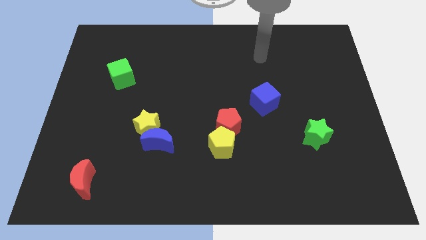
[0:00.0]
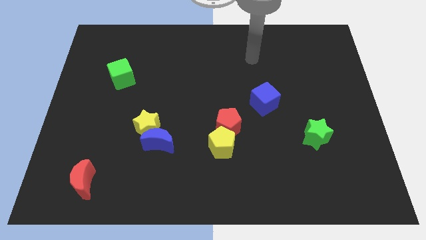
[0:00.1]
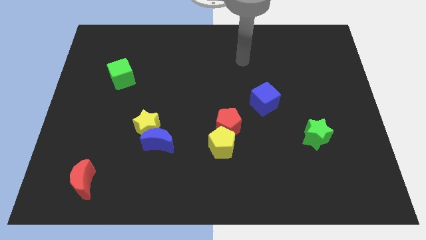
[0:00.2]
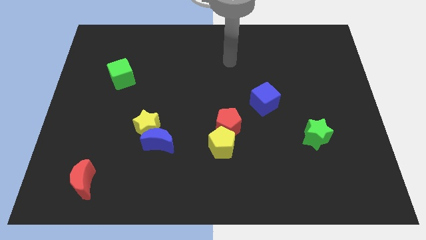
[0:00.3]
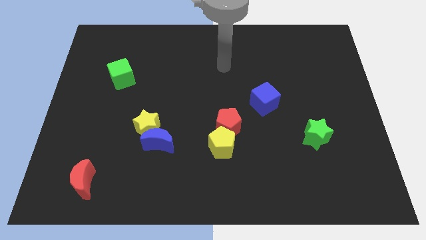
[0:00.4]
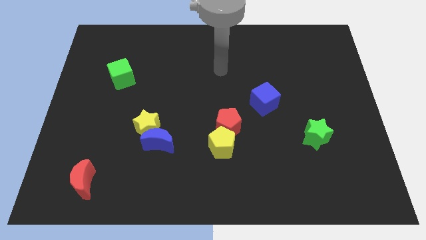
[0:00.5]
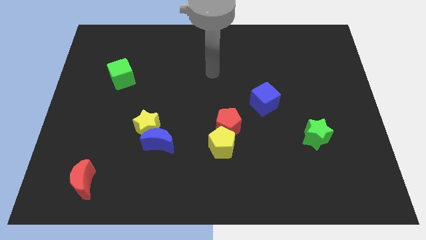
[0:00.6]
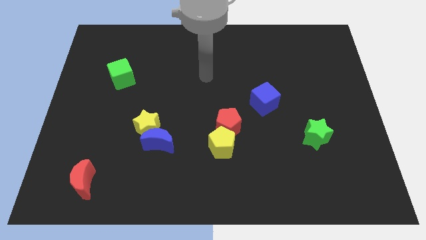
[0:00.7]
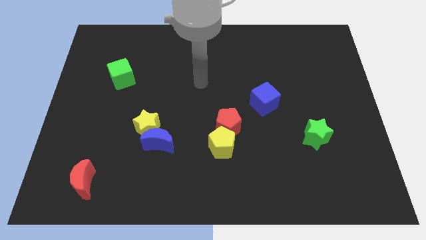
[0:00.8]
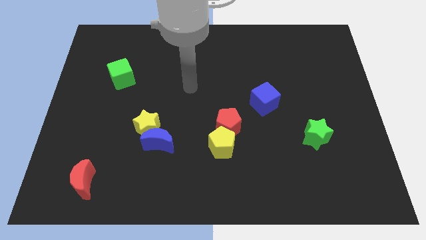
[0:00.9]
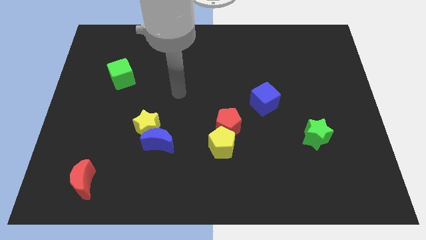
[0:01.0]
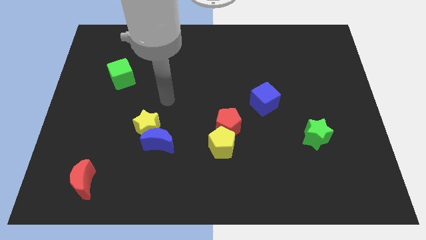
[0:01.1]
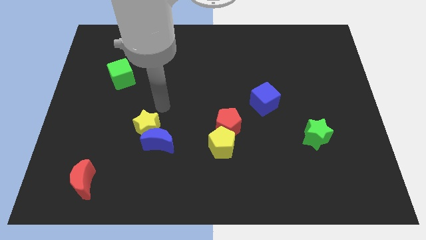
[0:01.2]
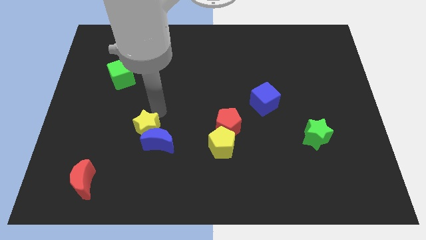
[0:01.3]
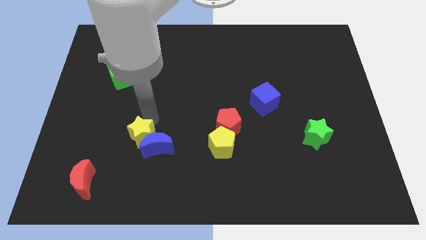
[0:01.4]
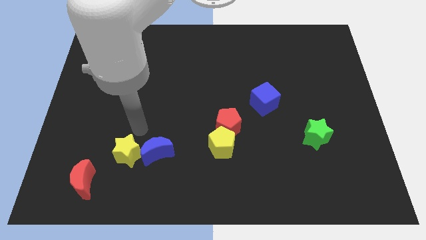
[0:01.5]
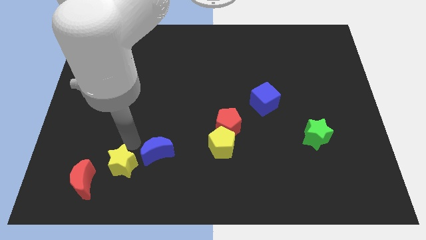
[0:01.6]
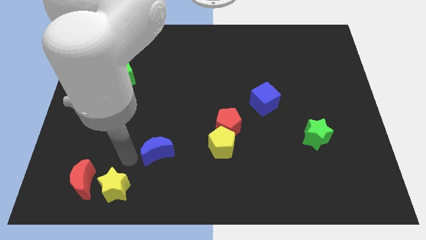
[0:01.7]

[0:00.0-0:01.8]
pull the blue moon apart from the yellow star

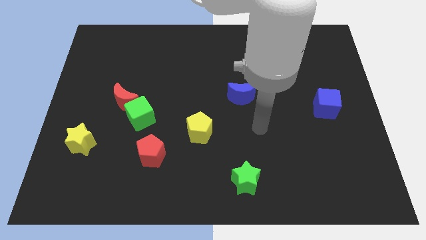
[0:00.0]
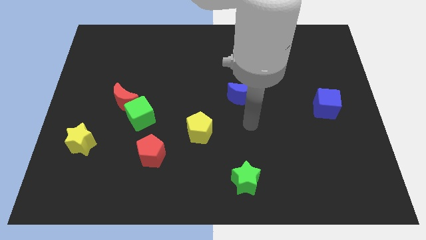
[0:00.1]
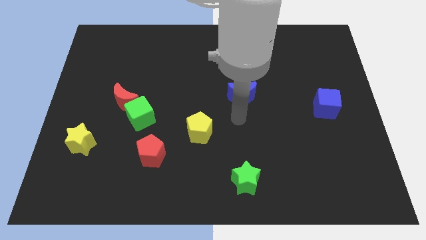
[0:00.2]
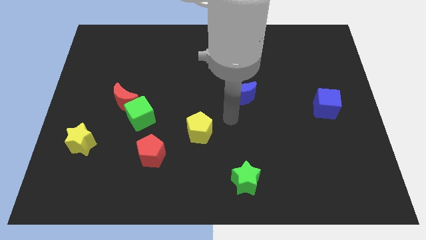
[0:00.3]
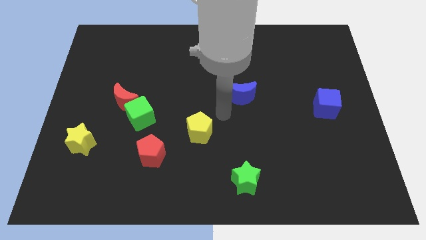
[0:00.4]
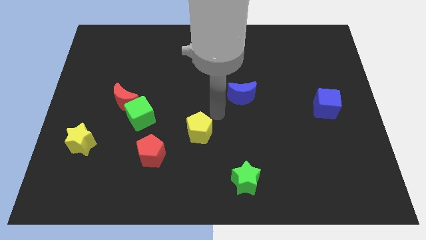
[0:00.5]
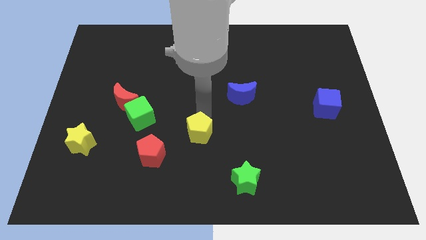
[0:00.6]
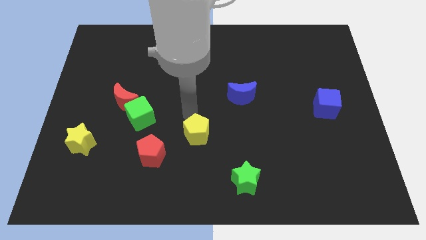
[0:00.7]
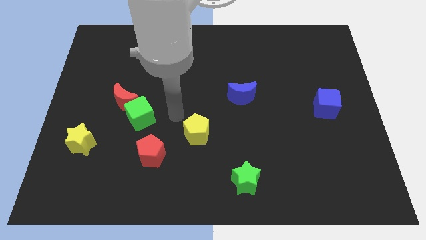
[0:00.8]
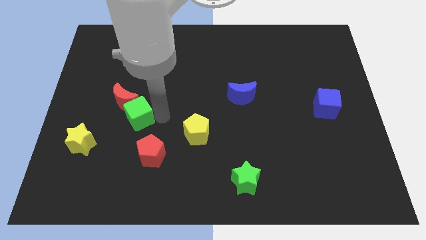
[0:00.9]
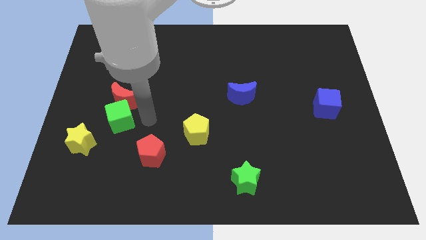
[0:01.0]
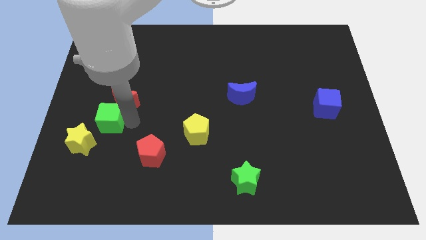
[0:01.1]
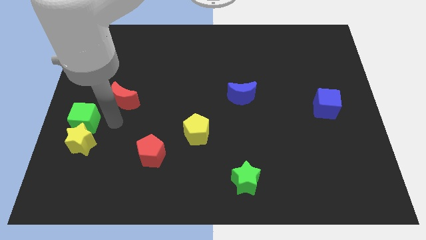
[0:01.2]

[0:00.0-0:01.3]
move the red moon away from the green cube

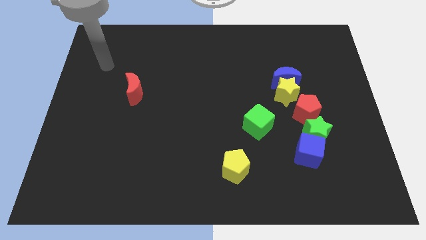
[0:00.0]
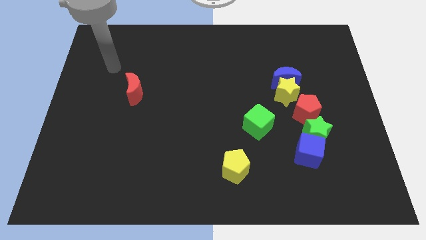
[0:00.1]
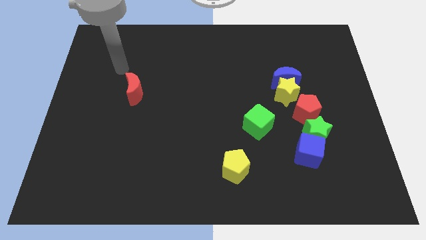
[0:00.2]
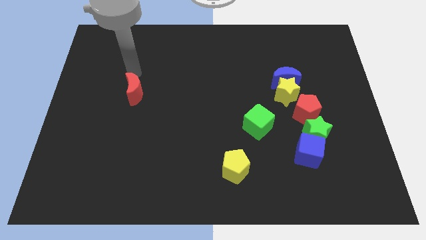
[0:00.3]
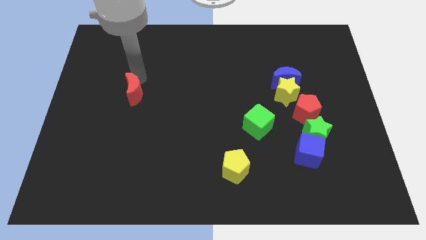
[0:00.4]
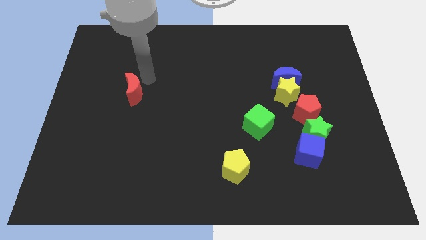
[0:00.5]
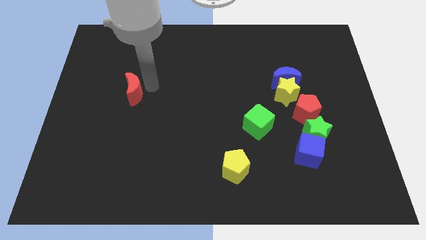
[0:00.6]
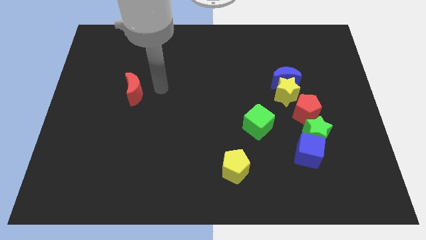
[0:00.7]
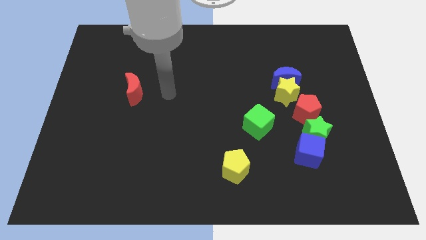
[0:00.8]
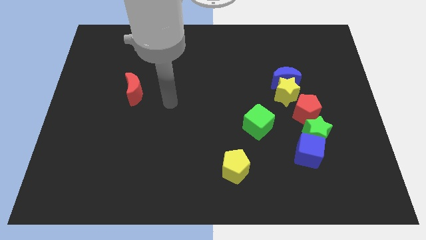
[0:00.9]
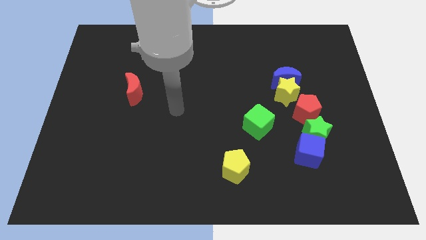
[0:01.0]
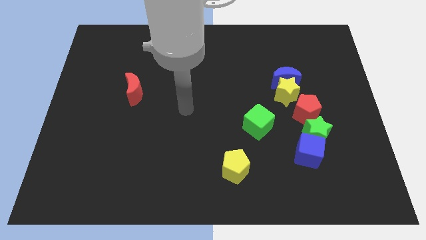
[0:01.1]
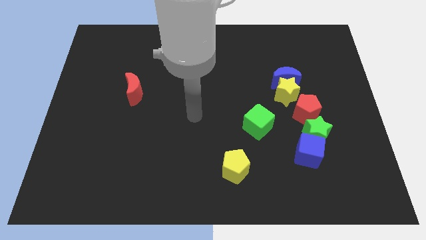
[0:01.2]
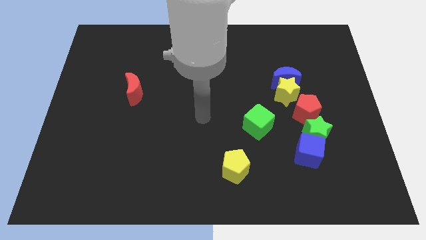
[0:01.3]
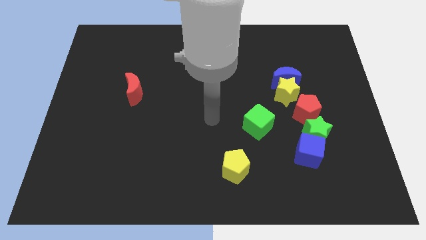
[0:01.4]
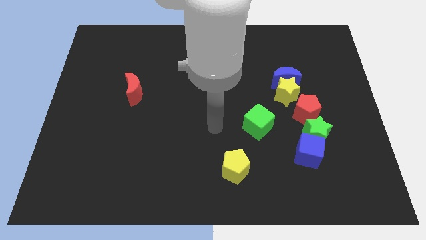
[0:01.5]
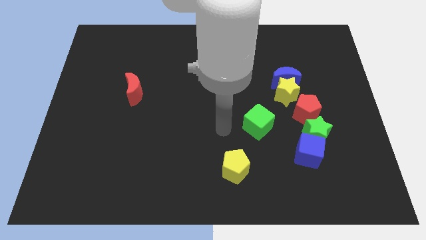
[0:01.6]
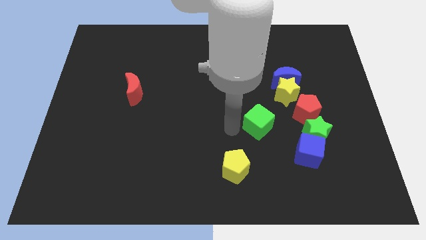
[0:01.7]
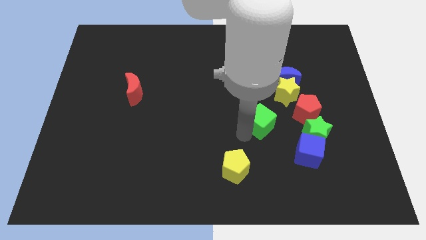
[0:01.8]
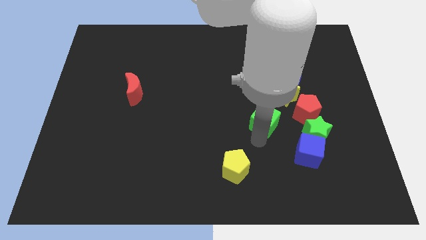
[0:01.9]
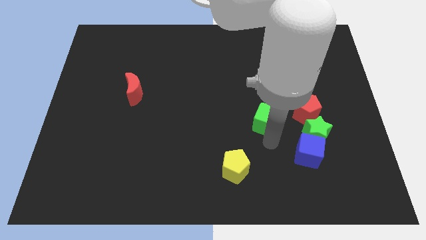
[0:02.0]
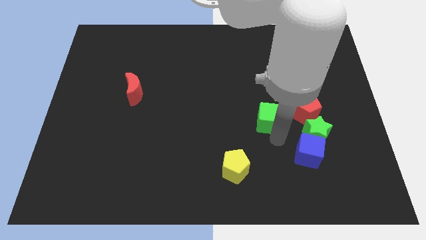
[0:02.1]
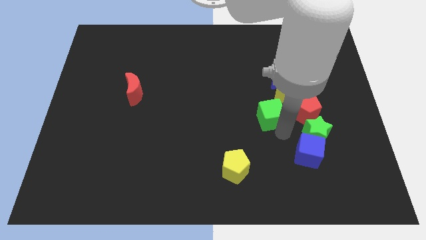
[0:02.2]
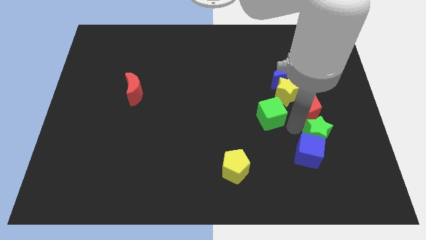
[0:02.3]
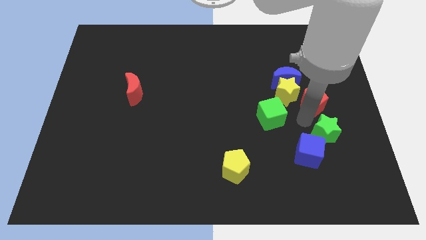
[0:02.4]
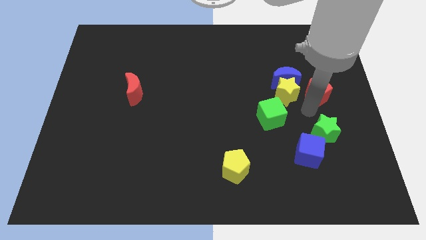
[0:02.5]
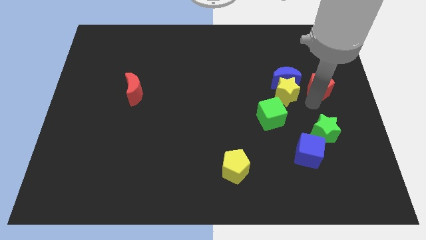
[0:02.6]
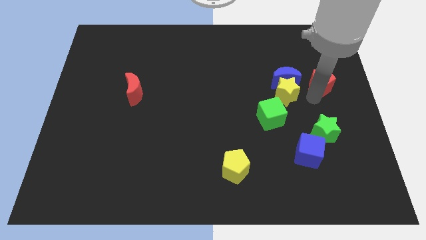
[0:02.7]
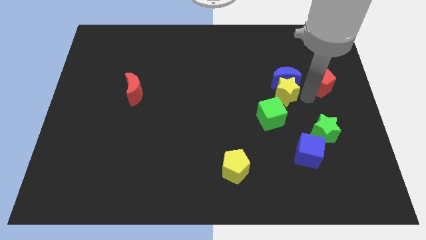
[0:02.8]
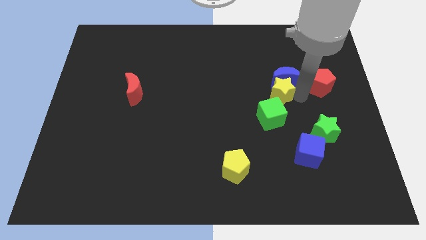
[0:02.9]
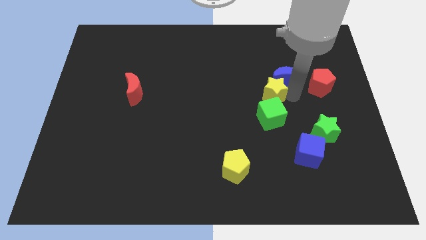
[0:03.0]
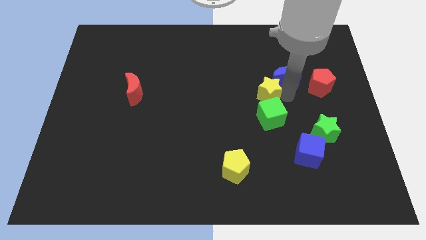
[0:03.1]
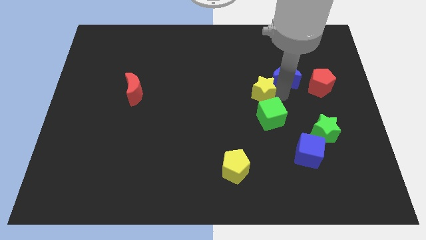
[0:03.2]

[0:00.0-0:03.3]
pull the yellow star apart from the blue moon and red pentagon

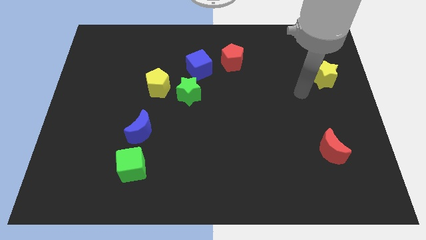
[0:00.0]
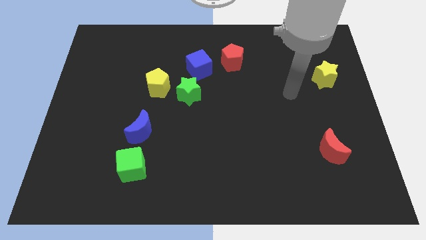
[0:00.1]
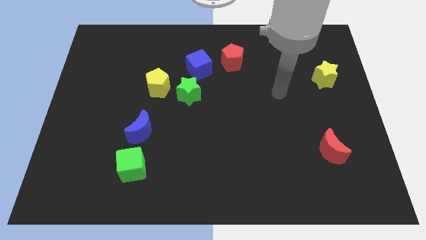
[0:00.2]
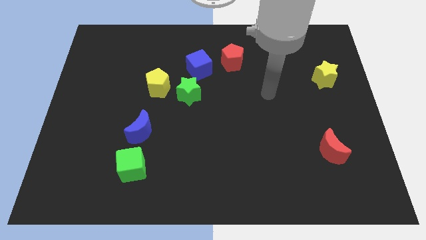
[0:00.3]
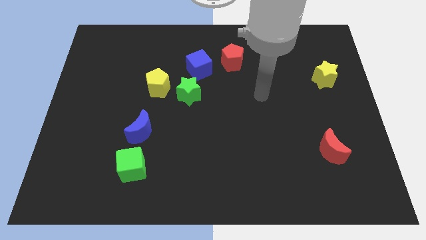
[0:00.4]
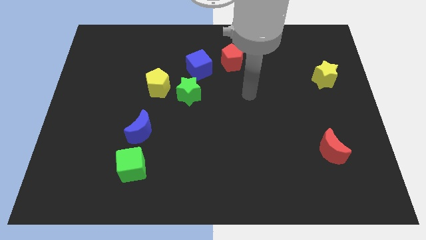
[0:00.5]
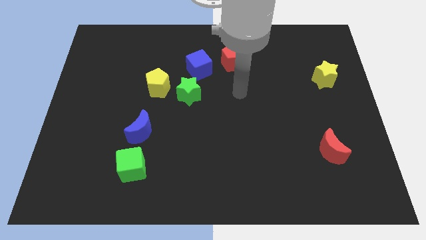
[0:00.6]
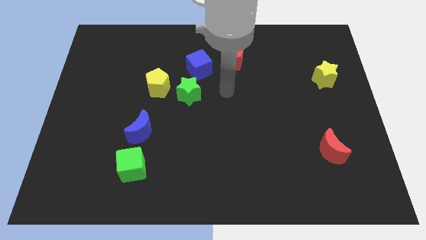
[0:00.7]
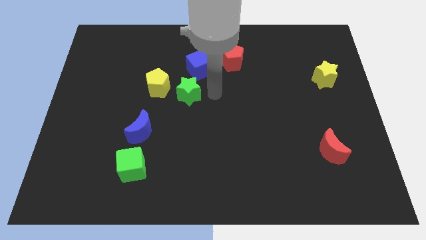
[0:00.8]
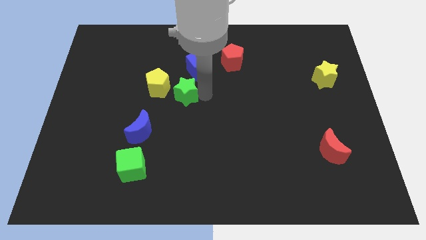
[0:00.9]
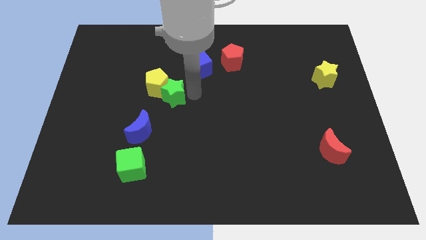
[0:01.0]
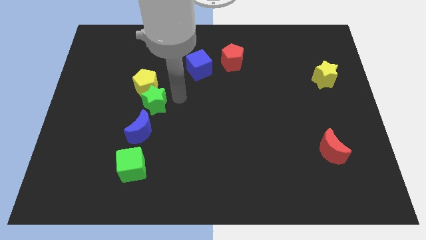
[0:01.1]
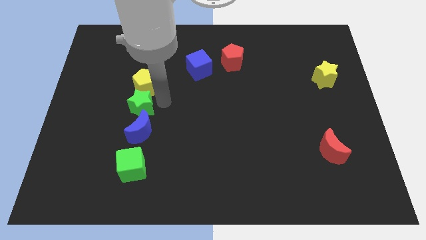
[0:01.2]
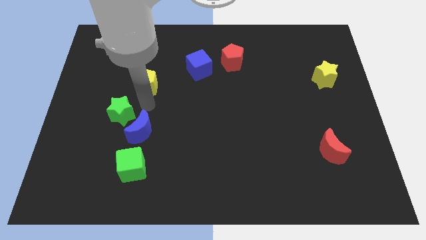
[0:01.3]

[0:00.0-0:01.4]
separate the yellow pentagon from the green star

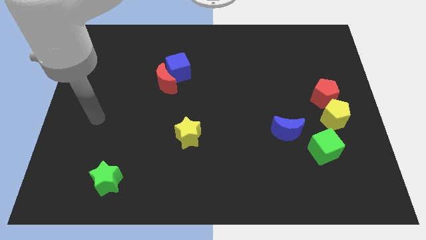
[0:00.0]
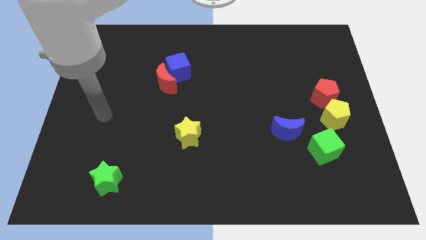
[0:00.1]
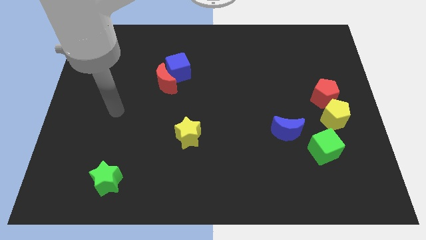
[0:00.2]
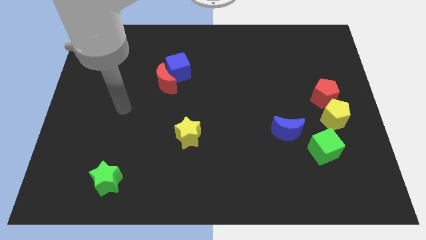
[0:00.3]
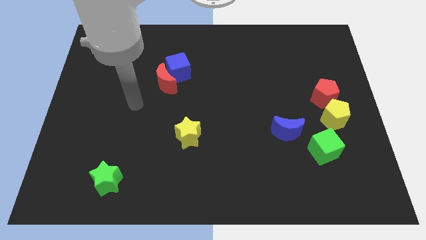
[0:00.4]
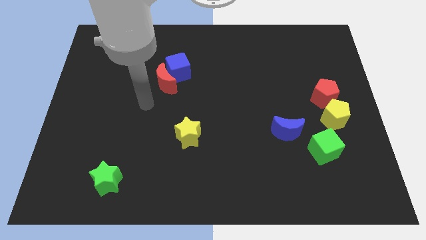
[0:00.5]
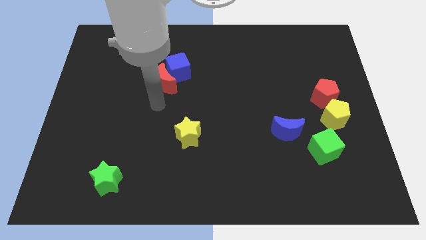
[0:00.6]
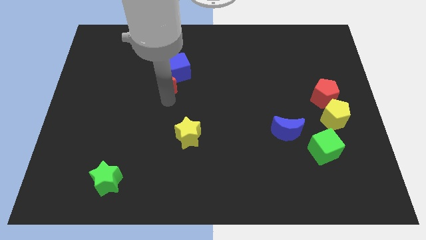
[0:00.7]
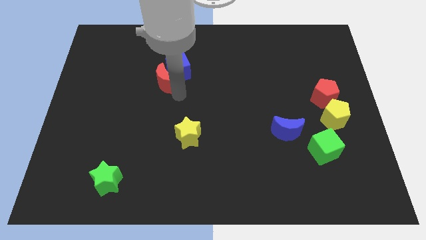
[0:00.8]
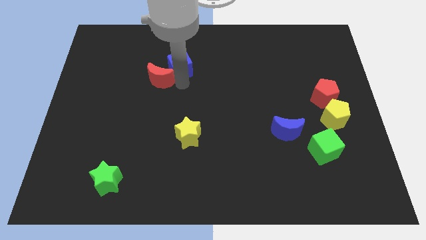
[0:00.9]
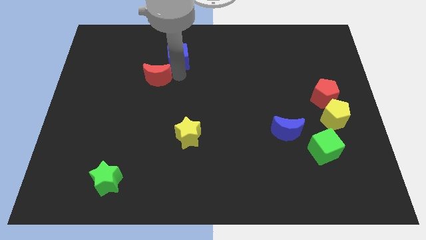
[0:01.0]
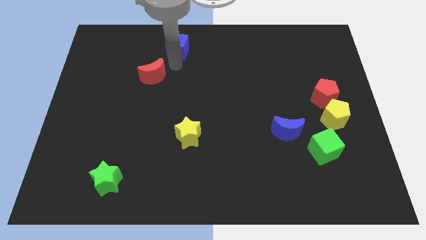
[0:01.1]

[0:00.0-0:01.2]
move the red moon away from the blue cube

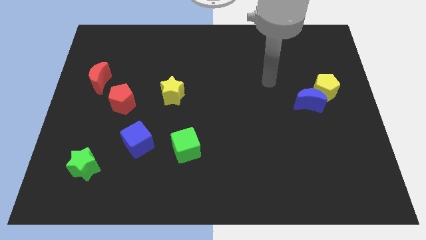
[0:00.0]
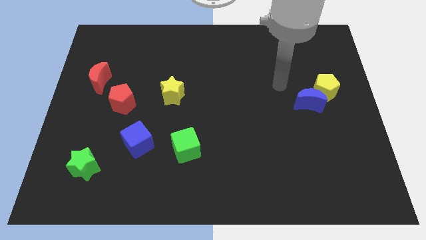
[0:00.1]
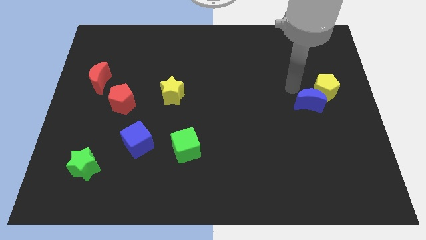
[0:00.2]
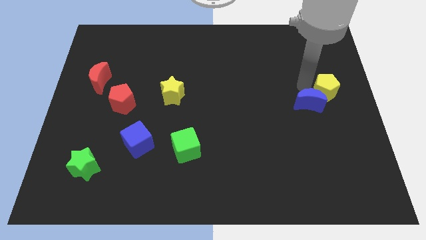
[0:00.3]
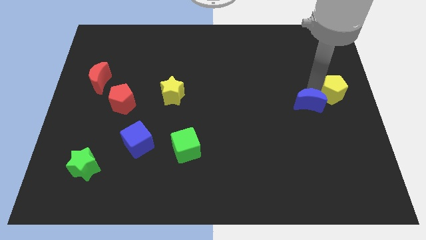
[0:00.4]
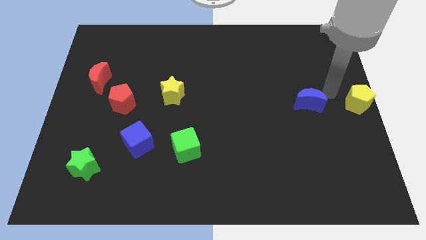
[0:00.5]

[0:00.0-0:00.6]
separate the blue moon from the yellow pentagon
